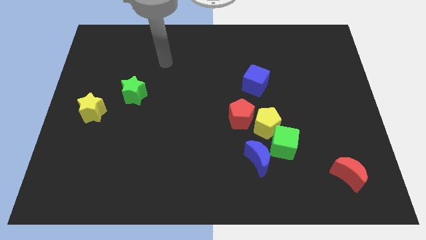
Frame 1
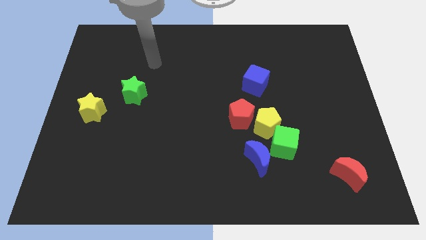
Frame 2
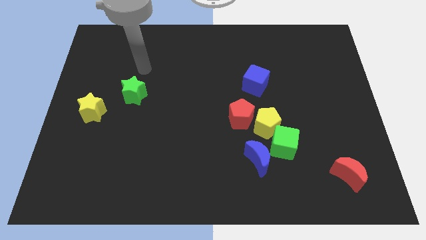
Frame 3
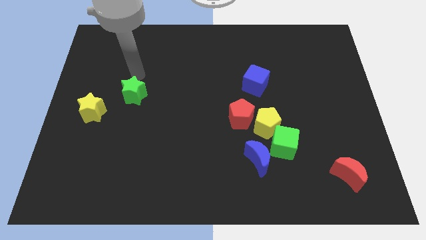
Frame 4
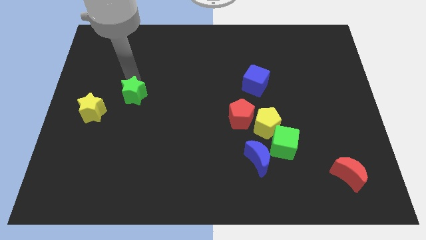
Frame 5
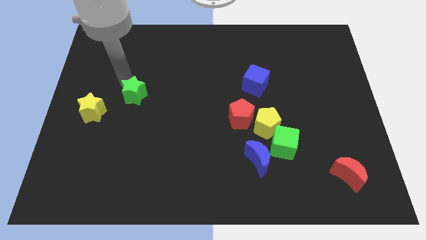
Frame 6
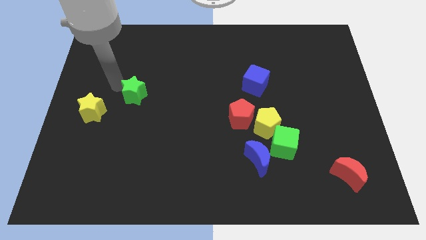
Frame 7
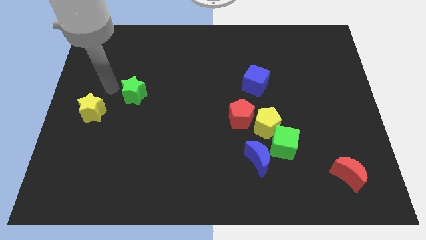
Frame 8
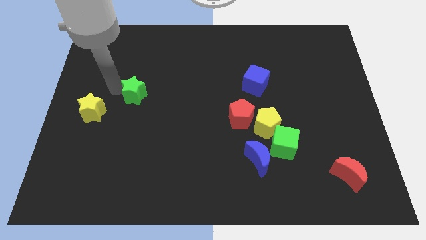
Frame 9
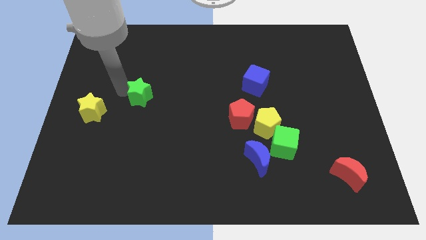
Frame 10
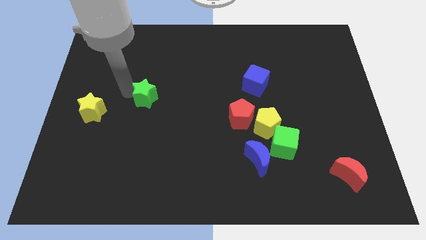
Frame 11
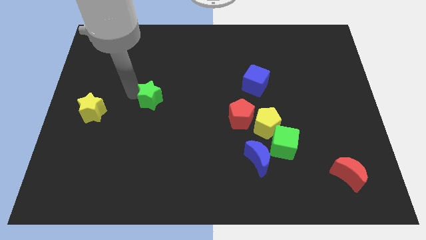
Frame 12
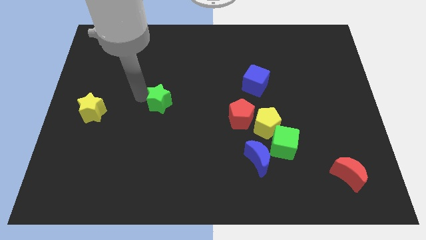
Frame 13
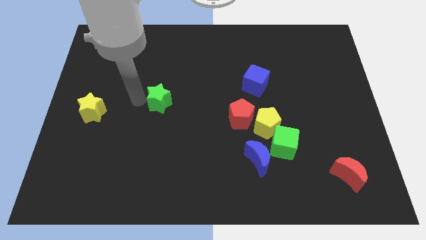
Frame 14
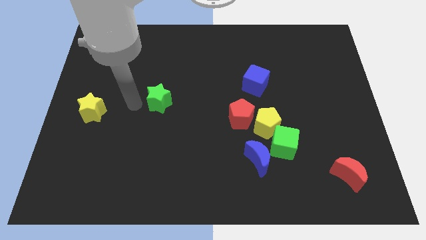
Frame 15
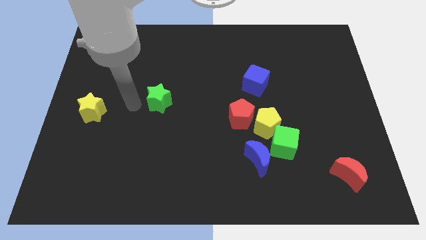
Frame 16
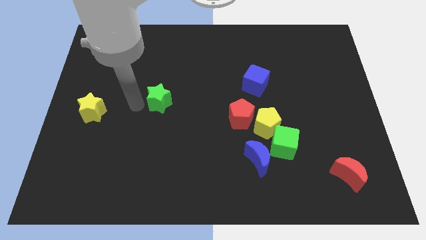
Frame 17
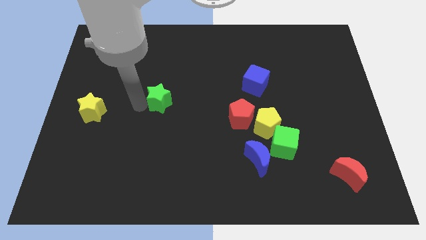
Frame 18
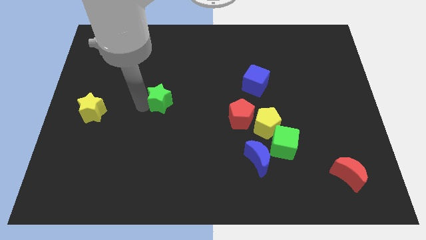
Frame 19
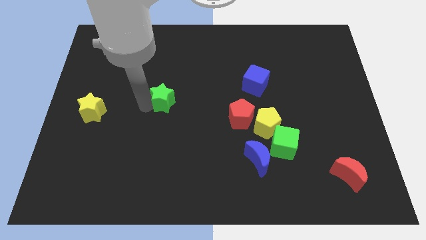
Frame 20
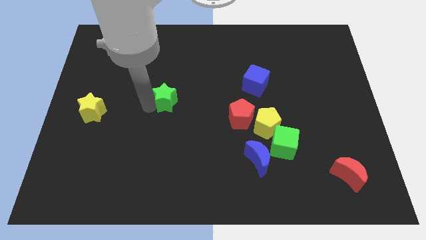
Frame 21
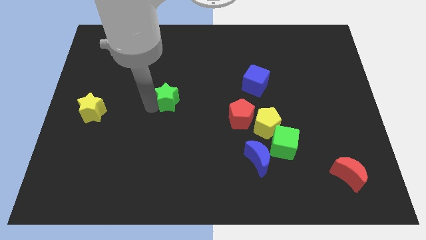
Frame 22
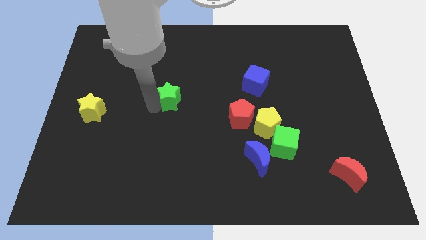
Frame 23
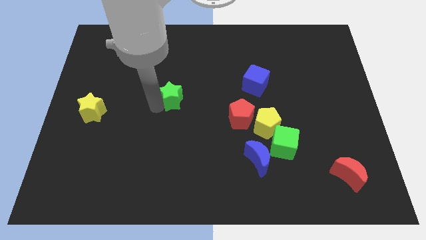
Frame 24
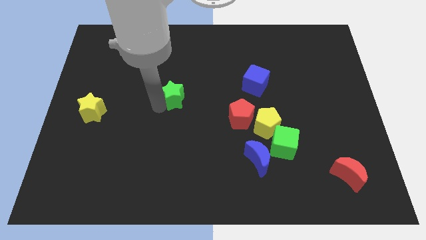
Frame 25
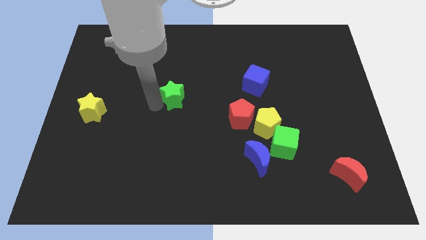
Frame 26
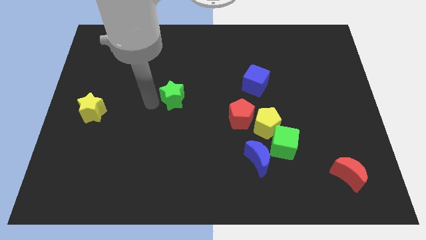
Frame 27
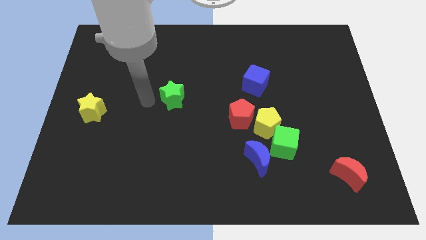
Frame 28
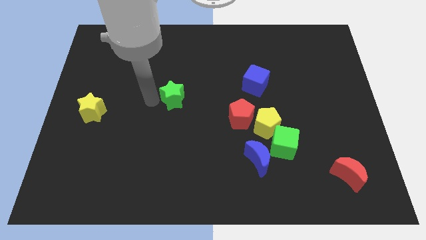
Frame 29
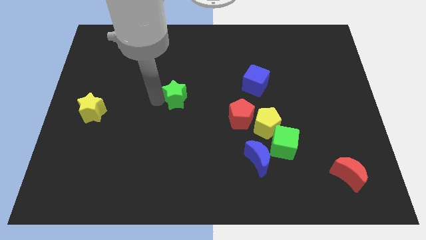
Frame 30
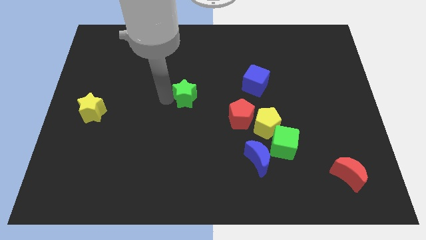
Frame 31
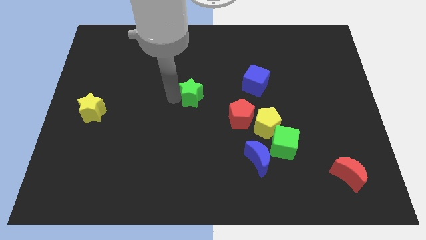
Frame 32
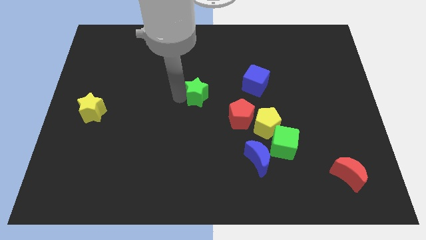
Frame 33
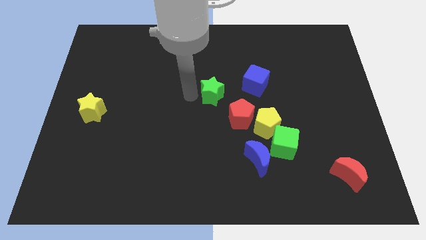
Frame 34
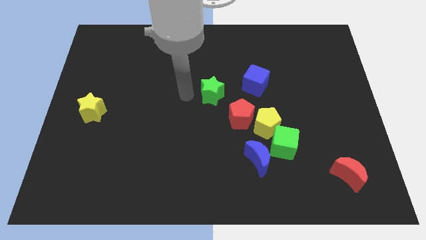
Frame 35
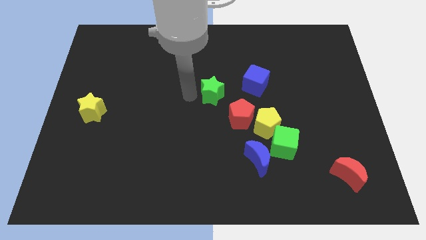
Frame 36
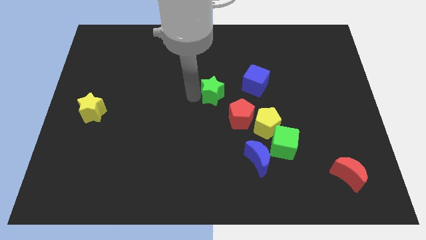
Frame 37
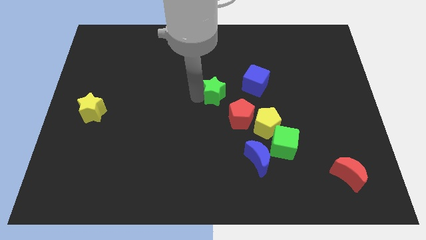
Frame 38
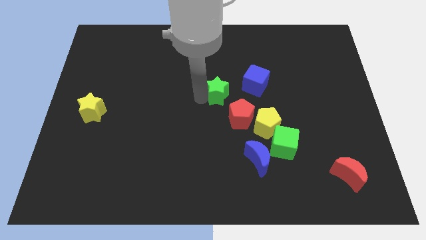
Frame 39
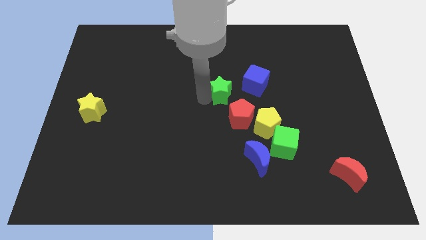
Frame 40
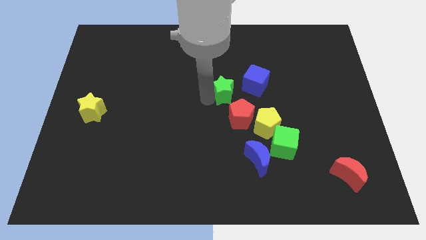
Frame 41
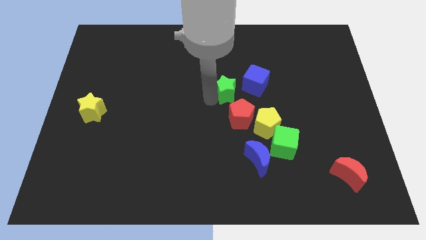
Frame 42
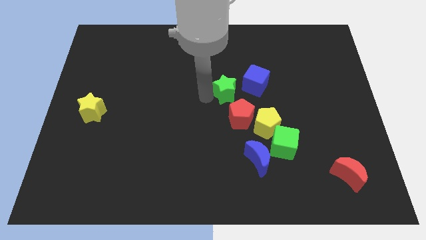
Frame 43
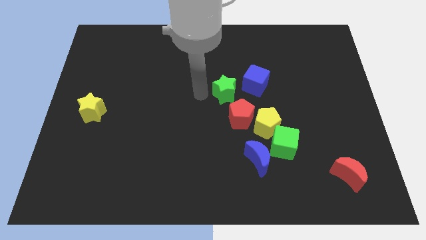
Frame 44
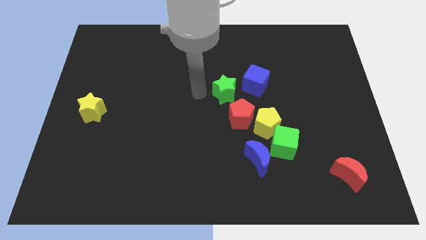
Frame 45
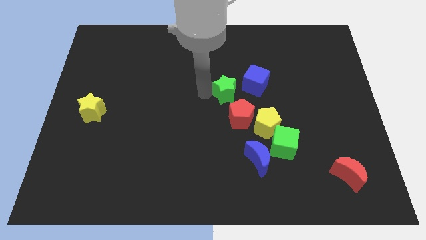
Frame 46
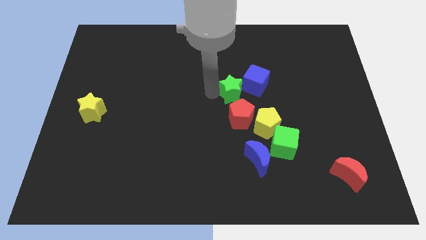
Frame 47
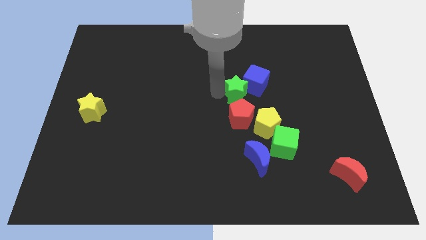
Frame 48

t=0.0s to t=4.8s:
push the green star towards the blue cube

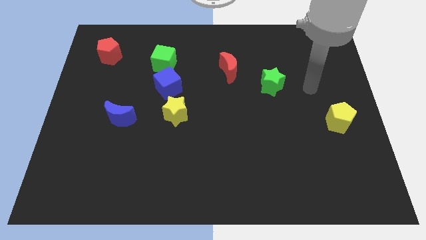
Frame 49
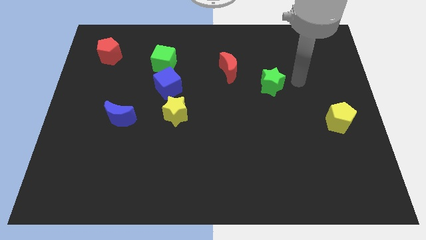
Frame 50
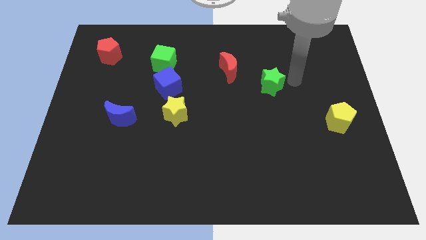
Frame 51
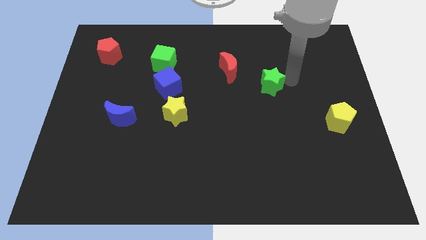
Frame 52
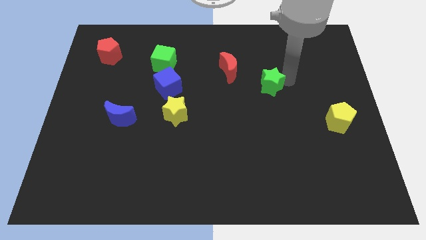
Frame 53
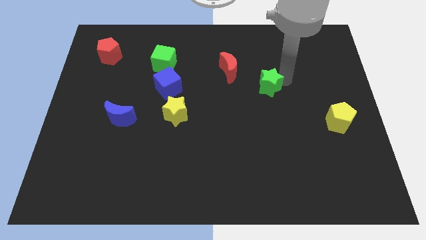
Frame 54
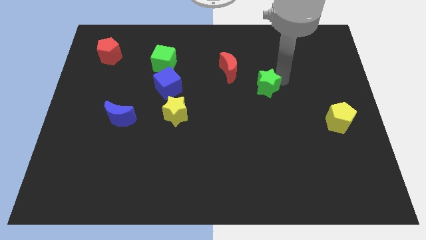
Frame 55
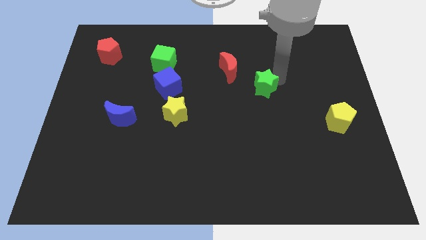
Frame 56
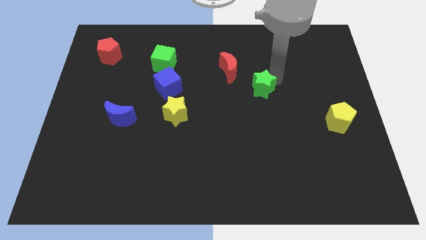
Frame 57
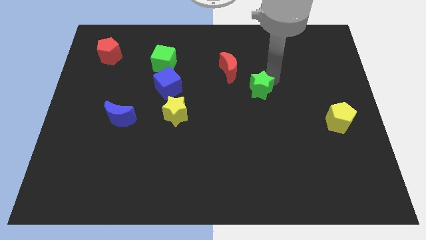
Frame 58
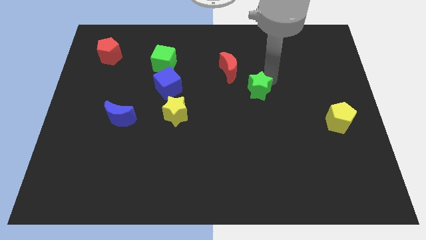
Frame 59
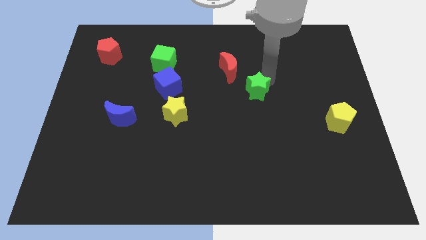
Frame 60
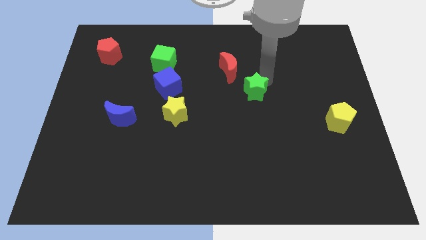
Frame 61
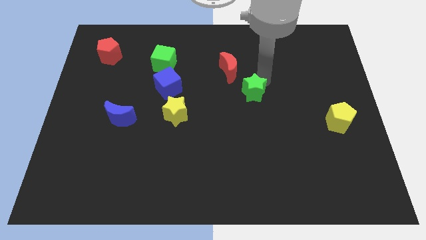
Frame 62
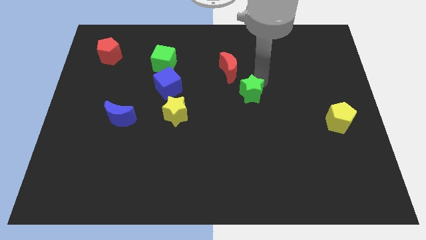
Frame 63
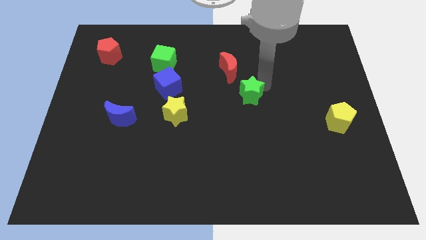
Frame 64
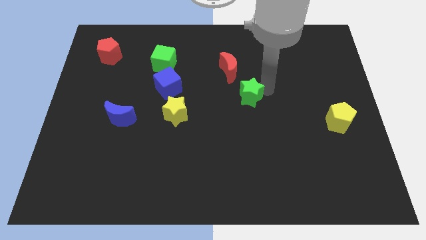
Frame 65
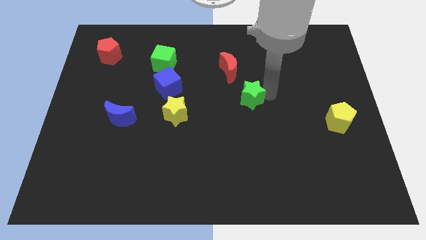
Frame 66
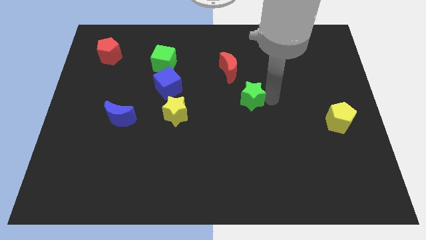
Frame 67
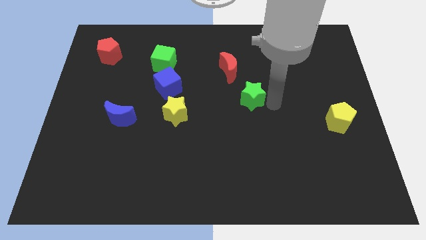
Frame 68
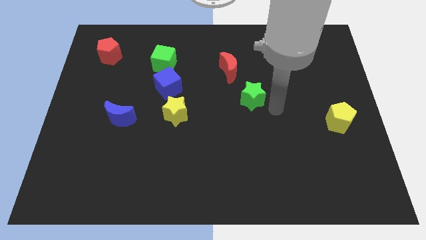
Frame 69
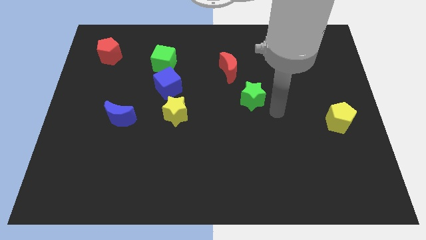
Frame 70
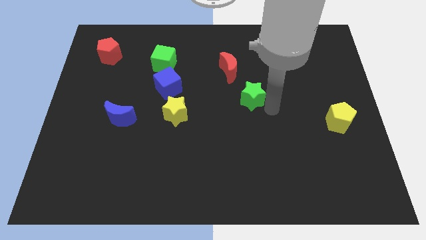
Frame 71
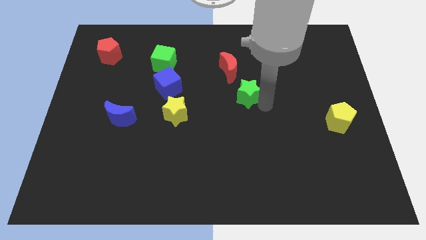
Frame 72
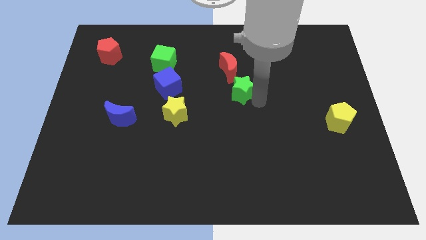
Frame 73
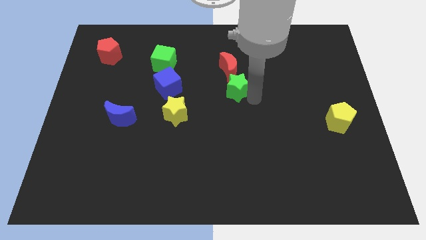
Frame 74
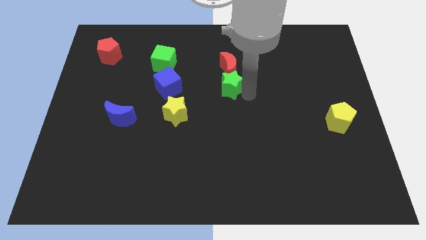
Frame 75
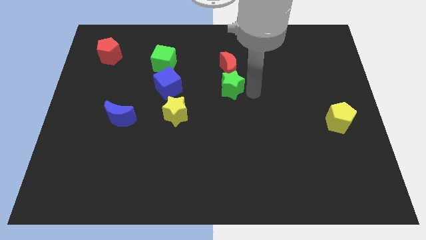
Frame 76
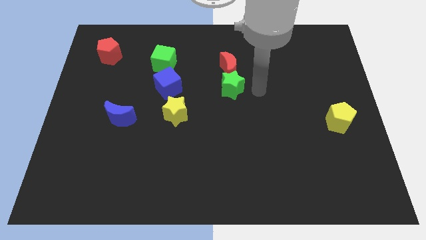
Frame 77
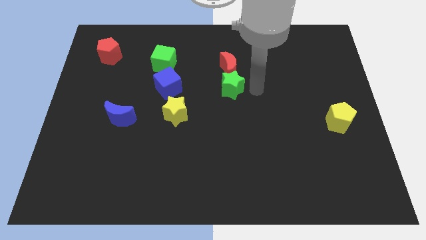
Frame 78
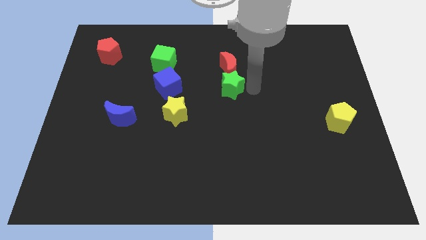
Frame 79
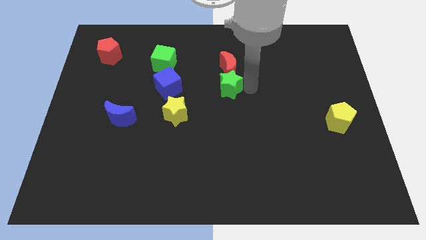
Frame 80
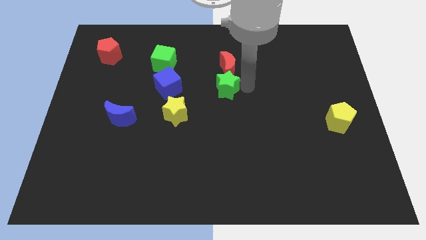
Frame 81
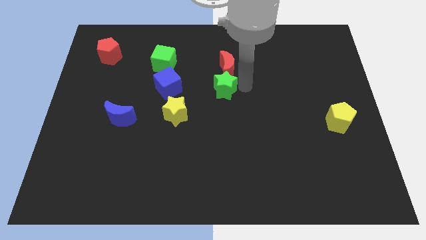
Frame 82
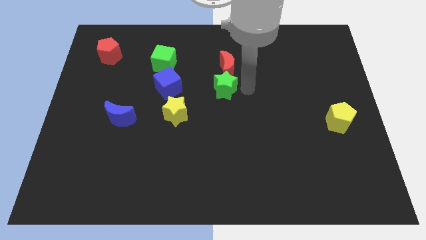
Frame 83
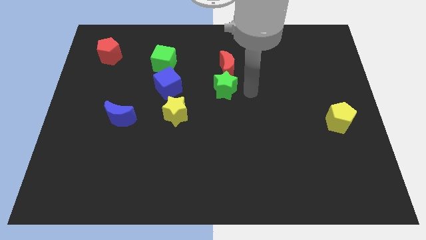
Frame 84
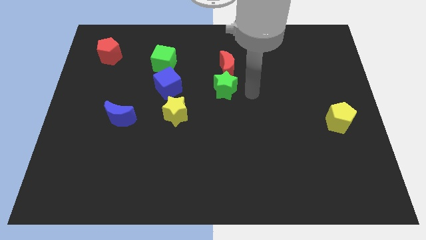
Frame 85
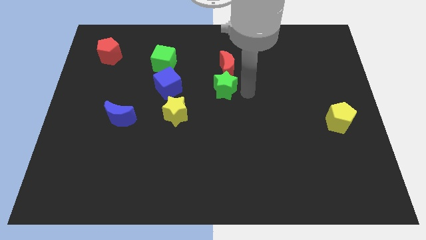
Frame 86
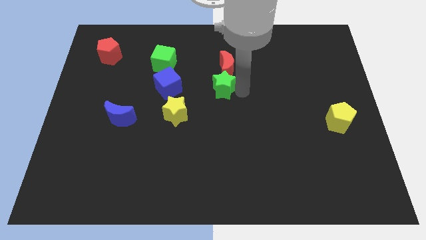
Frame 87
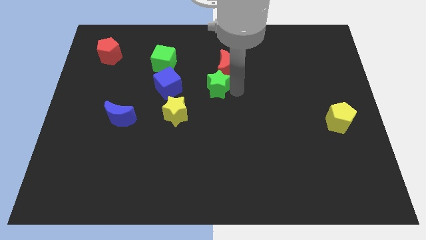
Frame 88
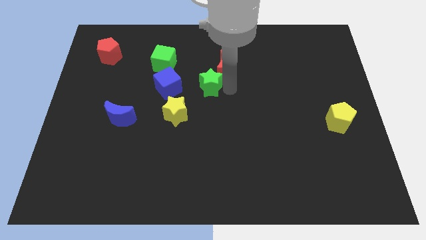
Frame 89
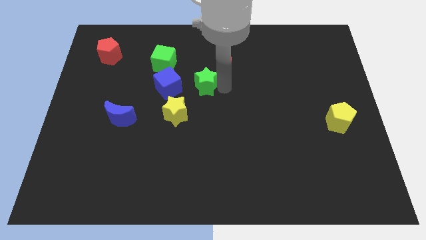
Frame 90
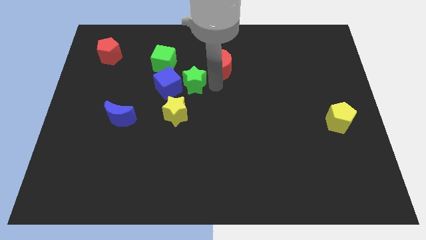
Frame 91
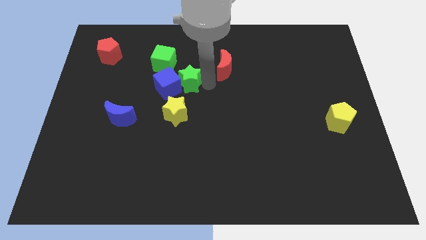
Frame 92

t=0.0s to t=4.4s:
move the green star towards the blue cube
